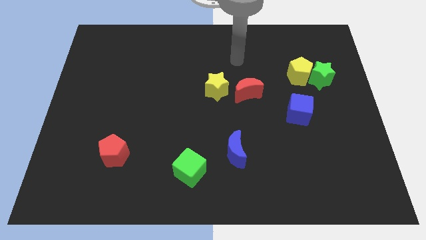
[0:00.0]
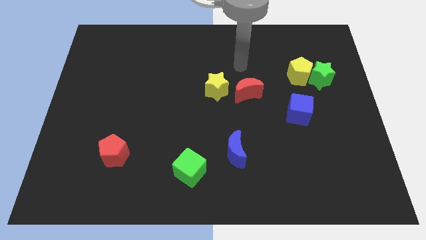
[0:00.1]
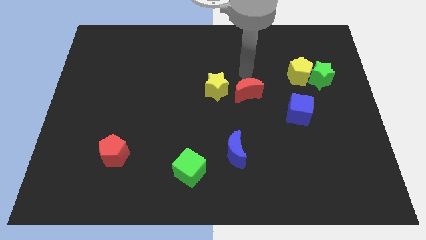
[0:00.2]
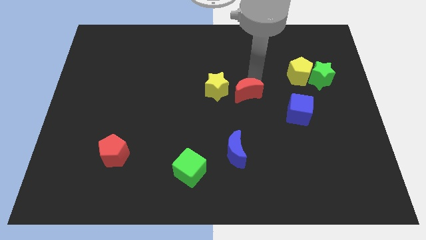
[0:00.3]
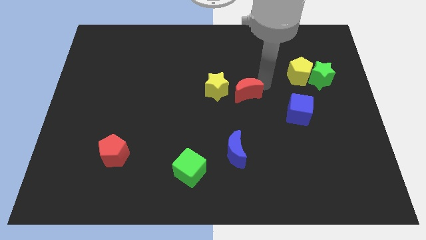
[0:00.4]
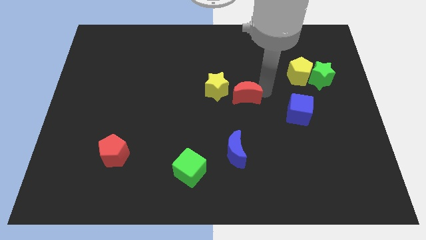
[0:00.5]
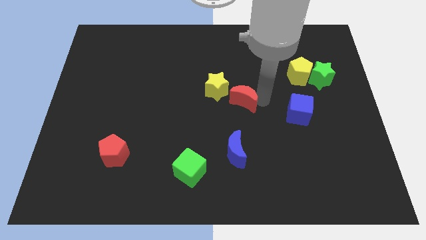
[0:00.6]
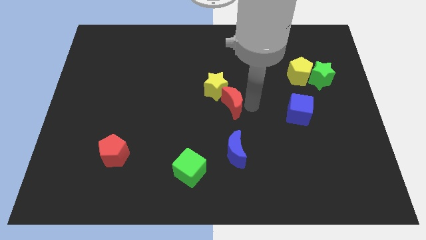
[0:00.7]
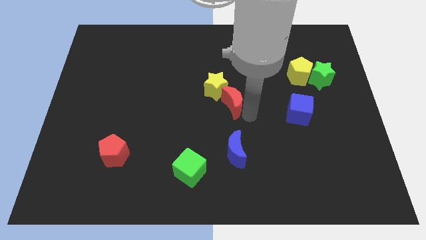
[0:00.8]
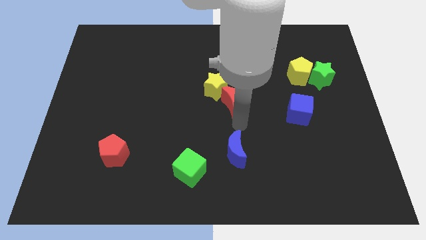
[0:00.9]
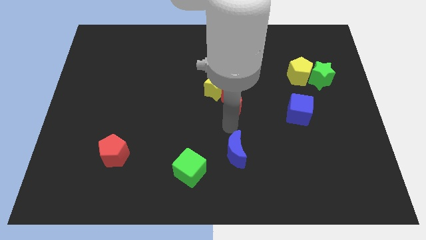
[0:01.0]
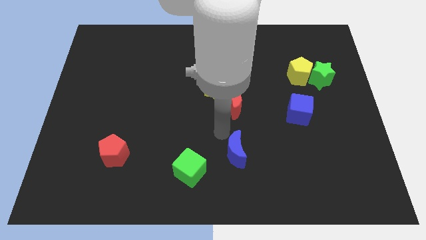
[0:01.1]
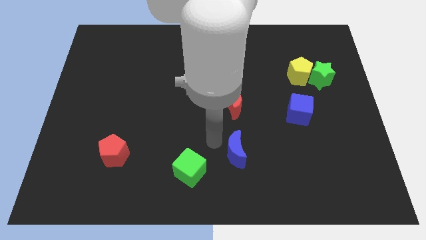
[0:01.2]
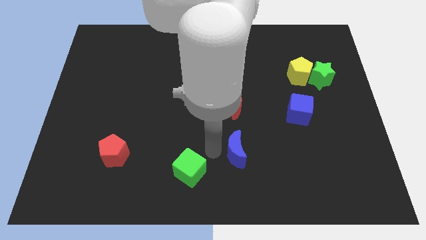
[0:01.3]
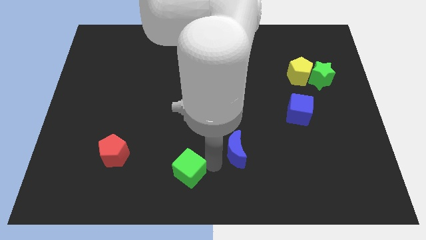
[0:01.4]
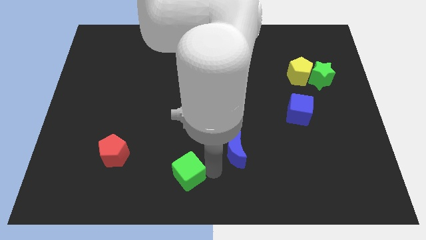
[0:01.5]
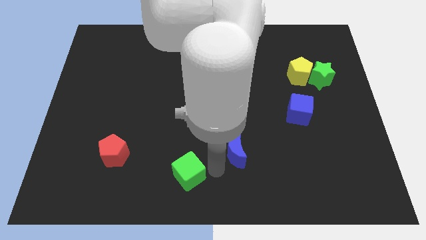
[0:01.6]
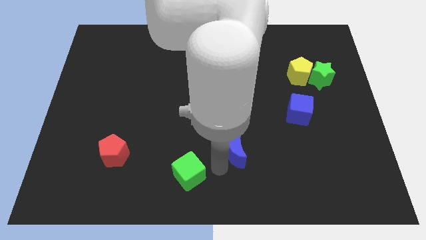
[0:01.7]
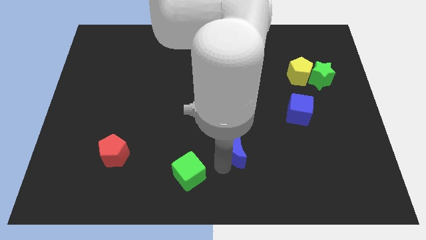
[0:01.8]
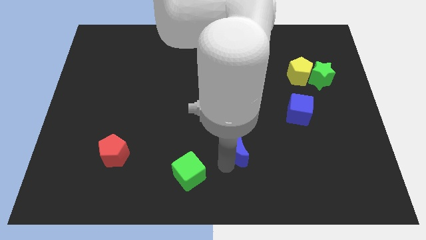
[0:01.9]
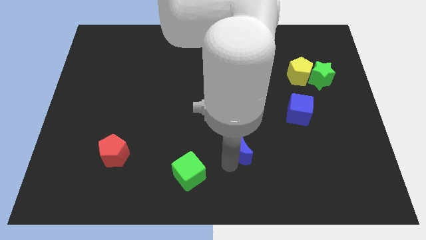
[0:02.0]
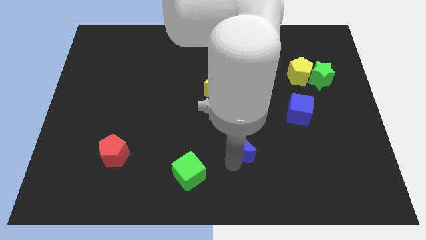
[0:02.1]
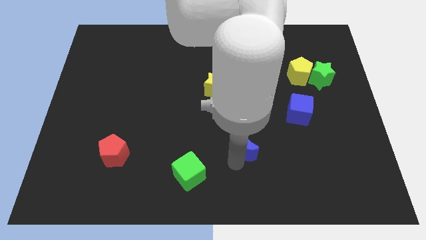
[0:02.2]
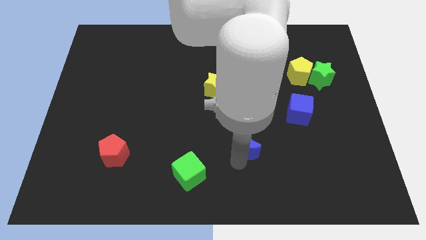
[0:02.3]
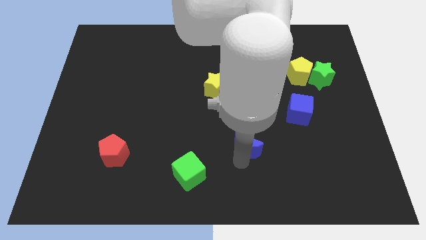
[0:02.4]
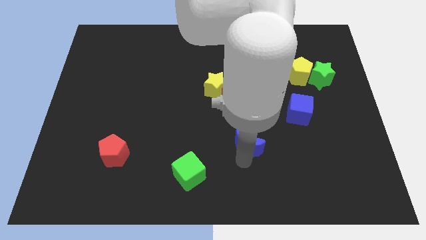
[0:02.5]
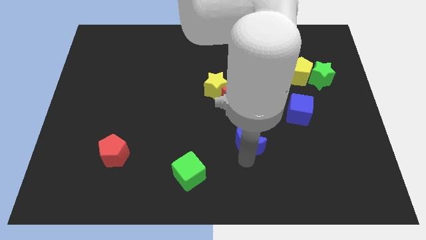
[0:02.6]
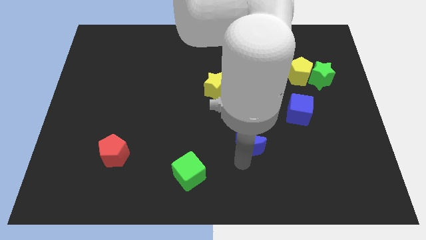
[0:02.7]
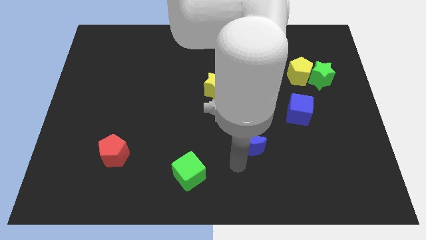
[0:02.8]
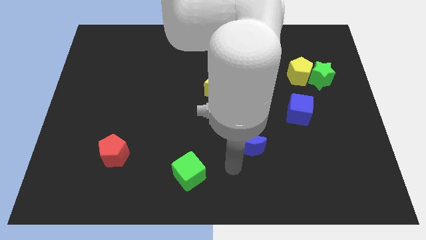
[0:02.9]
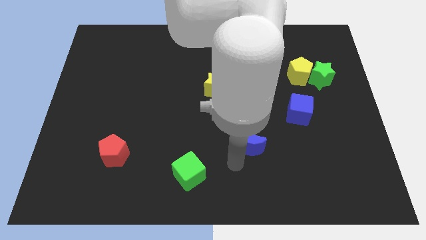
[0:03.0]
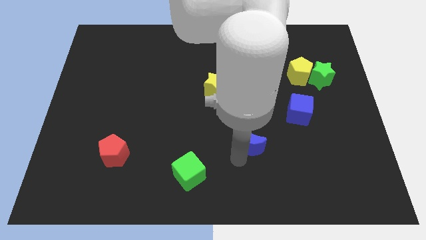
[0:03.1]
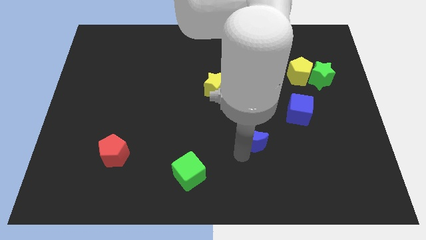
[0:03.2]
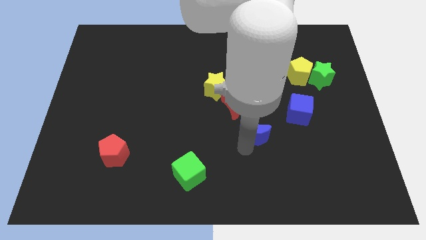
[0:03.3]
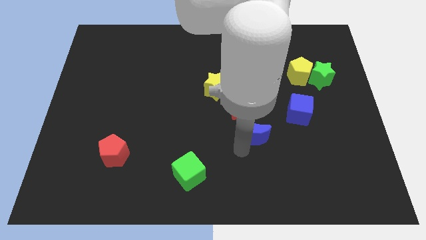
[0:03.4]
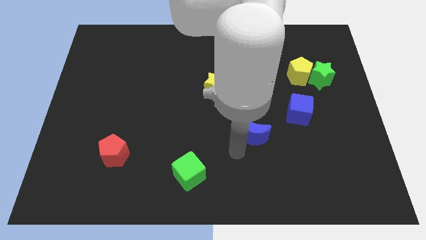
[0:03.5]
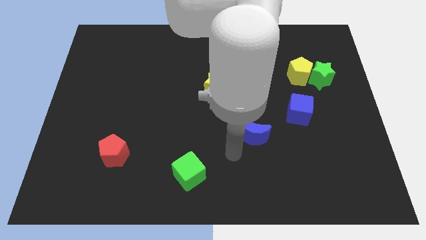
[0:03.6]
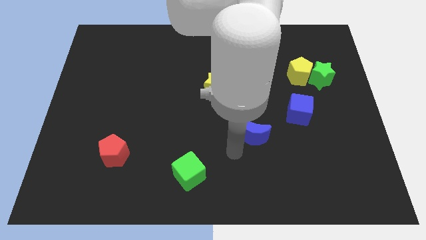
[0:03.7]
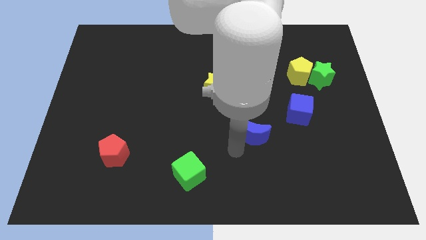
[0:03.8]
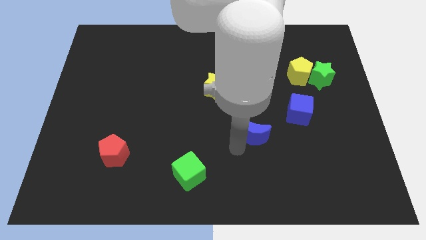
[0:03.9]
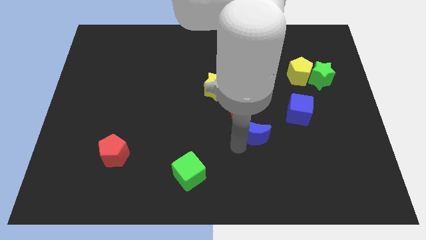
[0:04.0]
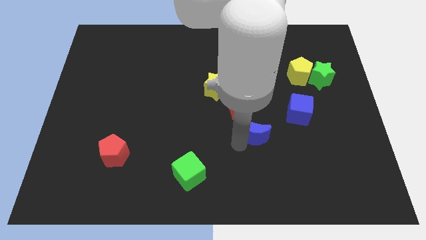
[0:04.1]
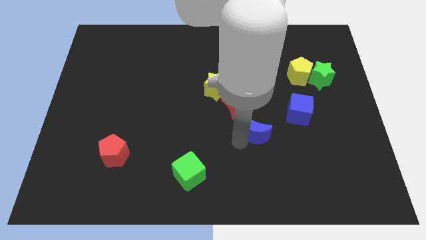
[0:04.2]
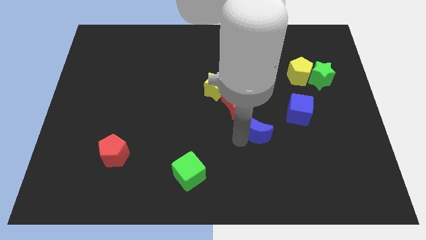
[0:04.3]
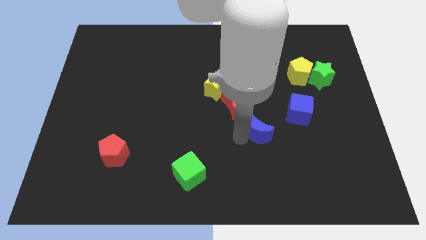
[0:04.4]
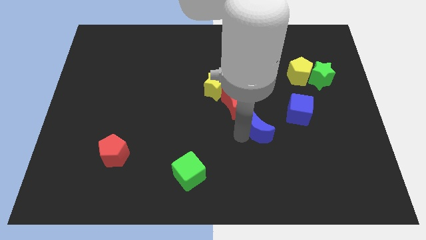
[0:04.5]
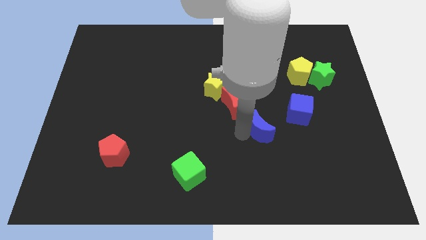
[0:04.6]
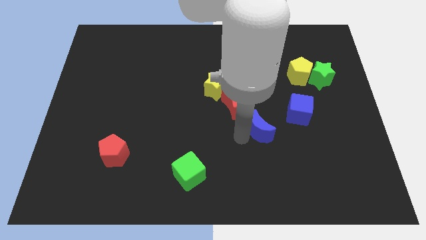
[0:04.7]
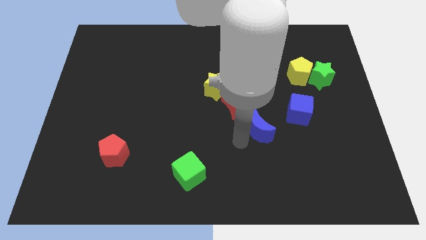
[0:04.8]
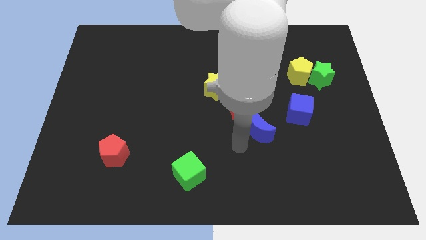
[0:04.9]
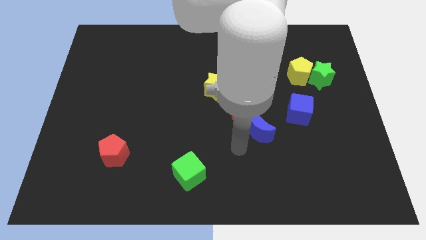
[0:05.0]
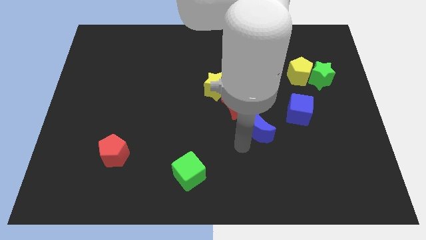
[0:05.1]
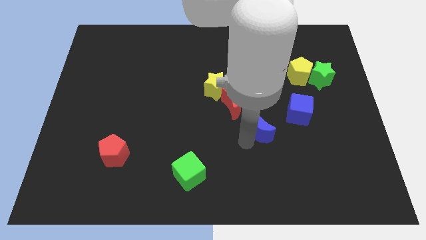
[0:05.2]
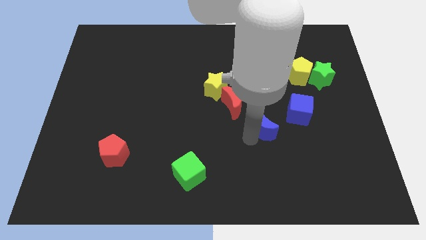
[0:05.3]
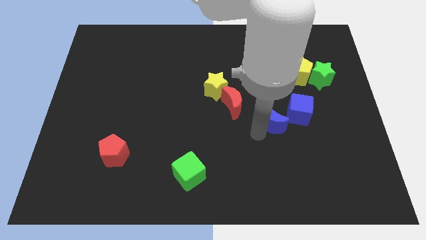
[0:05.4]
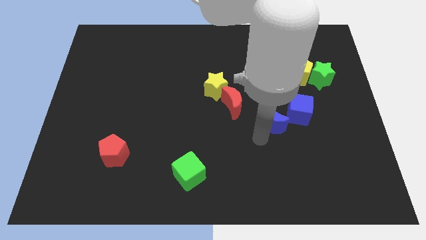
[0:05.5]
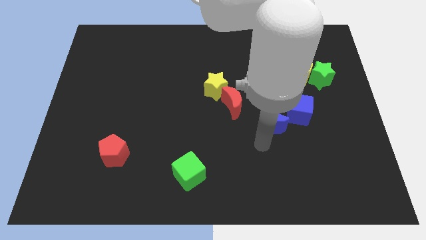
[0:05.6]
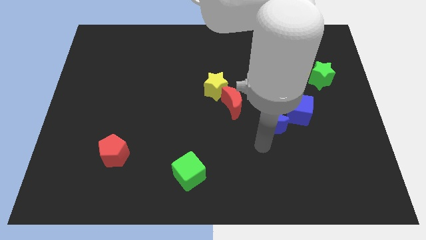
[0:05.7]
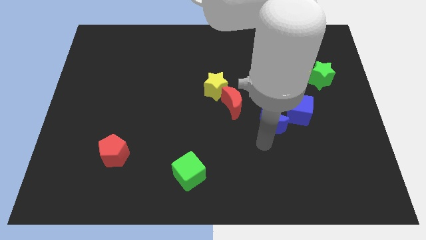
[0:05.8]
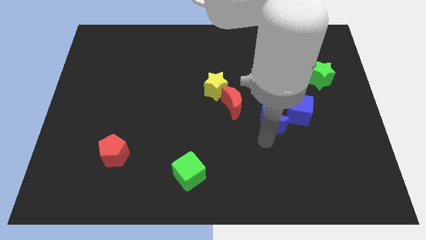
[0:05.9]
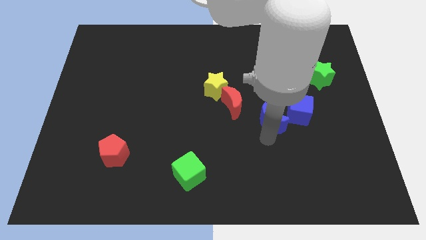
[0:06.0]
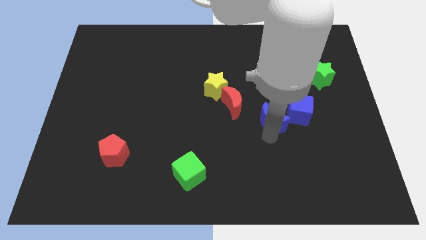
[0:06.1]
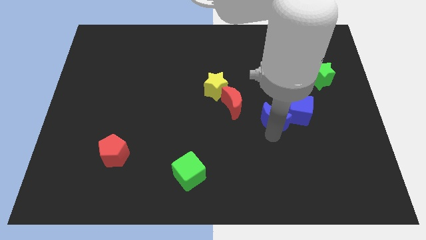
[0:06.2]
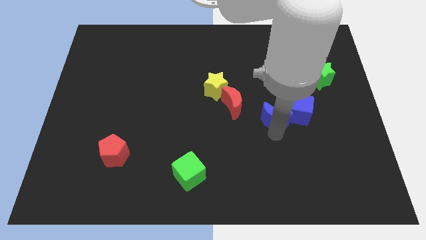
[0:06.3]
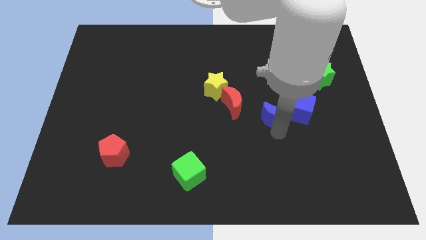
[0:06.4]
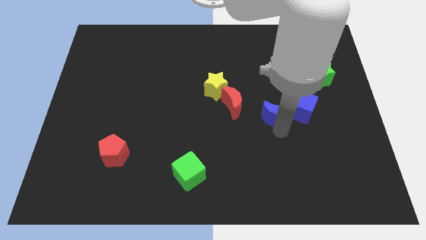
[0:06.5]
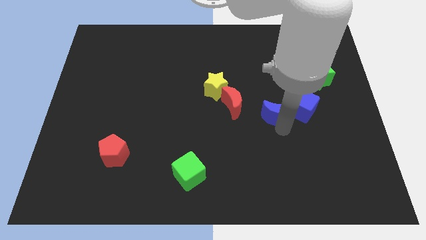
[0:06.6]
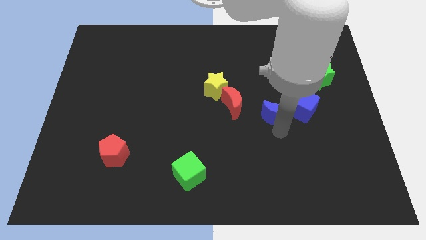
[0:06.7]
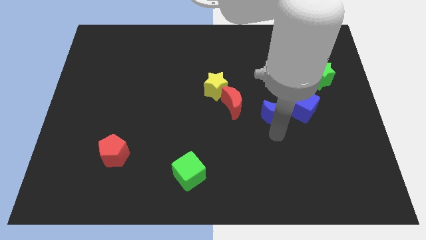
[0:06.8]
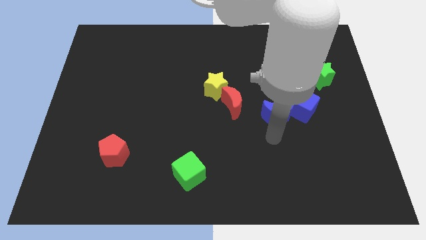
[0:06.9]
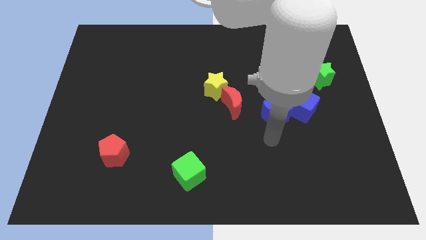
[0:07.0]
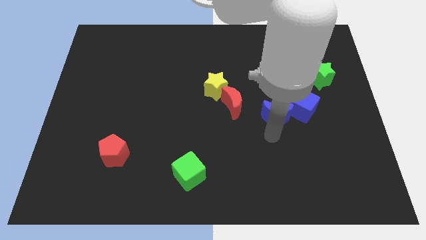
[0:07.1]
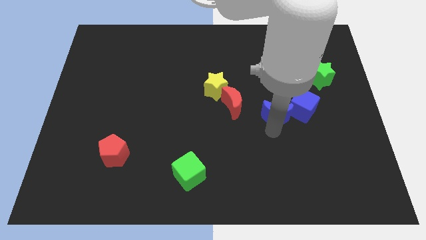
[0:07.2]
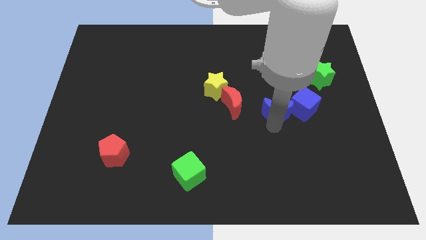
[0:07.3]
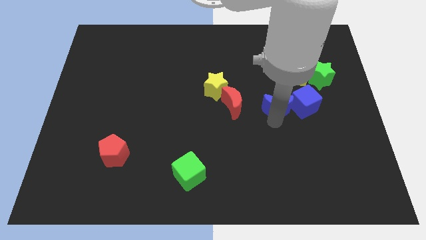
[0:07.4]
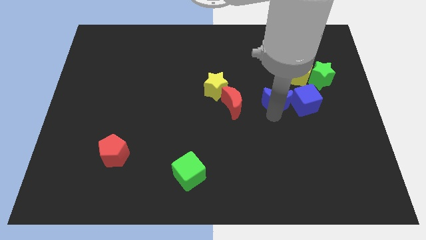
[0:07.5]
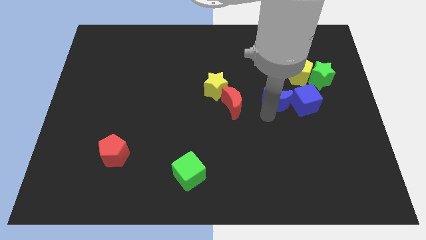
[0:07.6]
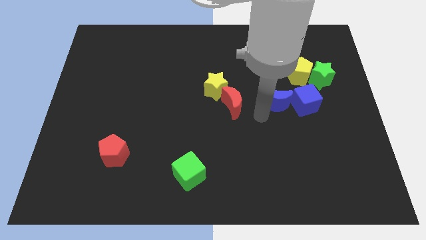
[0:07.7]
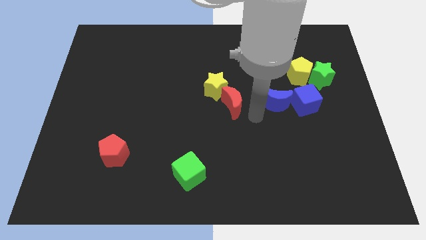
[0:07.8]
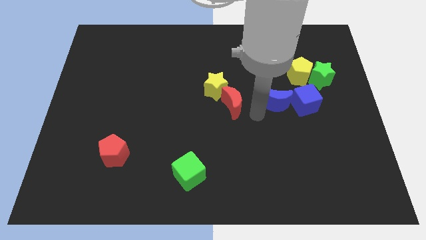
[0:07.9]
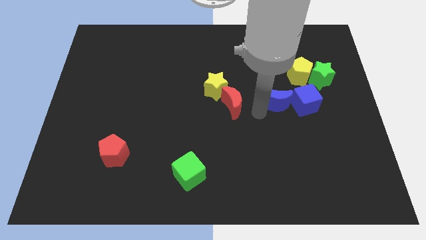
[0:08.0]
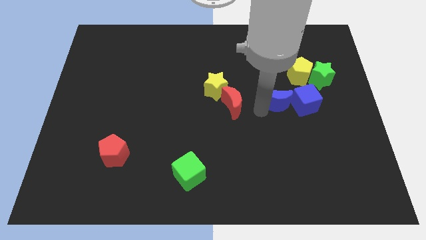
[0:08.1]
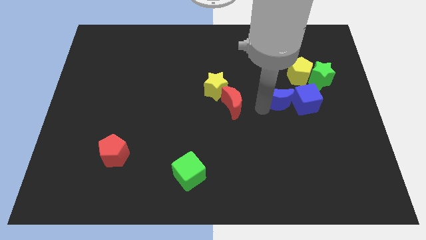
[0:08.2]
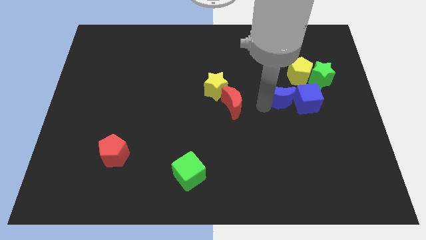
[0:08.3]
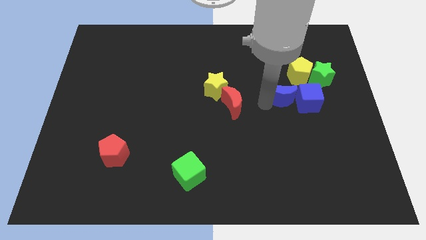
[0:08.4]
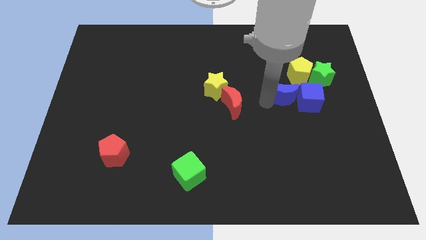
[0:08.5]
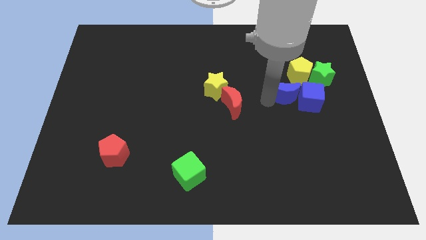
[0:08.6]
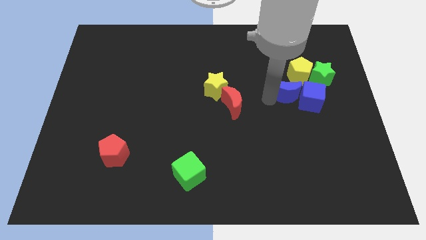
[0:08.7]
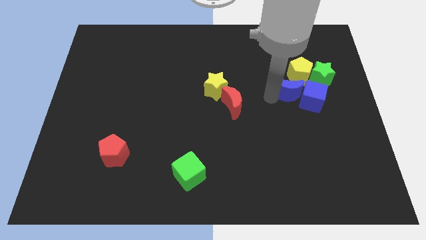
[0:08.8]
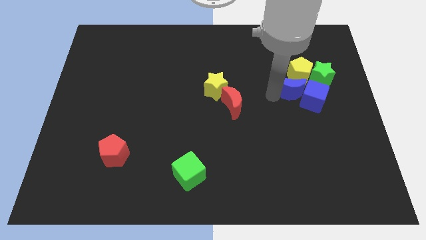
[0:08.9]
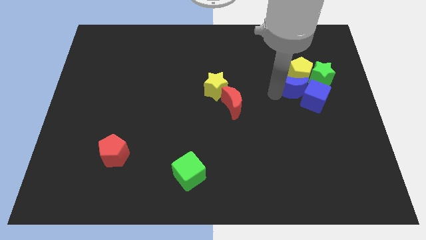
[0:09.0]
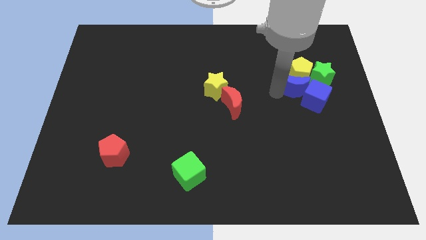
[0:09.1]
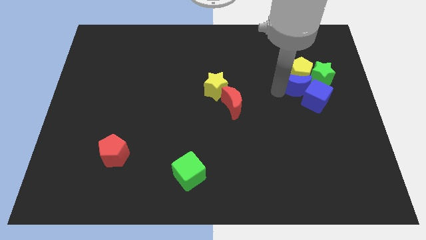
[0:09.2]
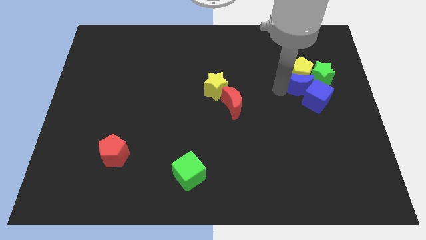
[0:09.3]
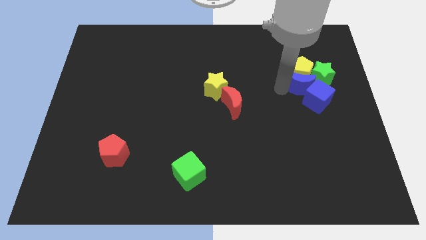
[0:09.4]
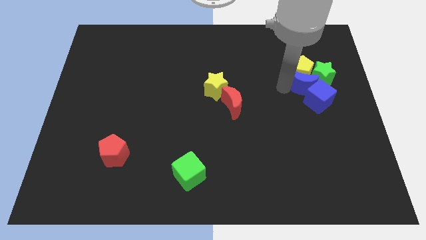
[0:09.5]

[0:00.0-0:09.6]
move the blue moon next to the green star
